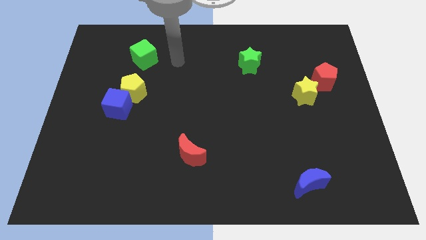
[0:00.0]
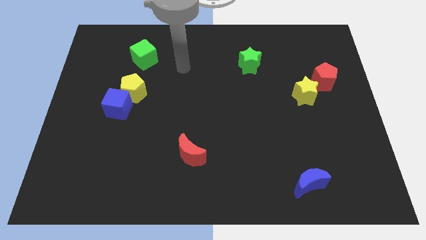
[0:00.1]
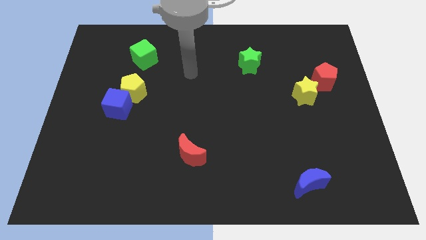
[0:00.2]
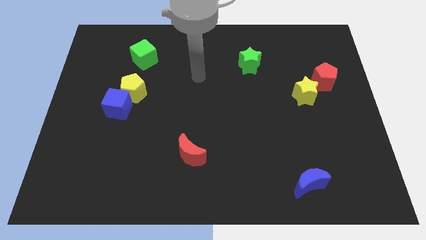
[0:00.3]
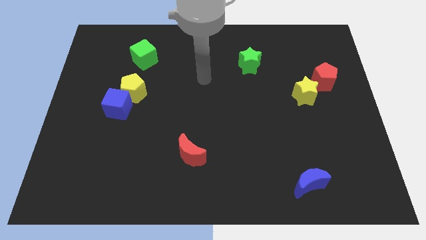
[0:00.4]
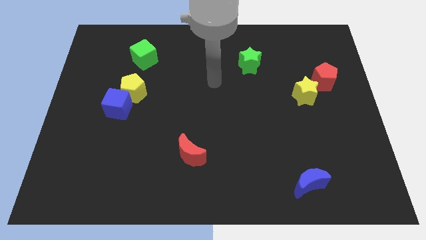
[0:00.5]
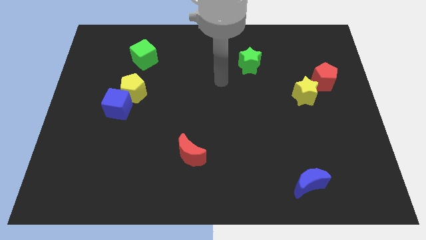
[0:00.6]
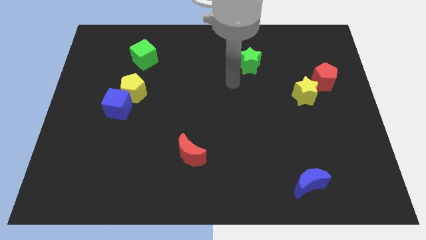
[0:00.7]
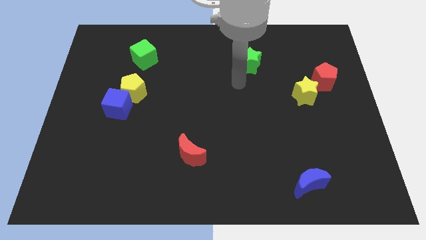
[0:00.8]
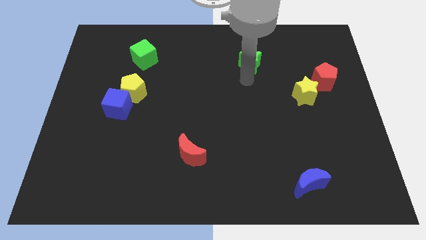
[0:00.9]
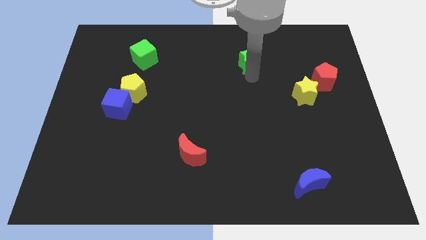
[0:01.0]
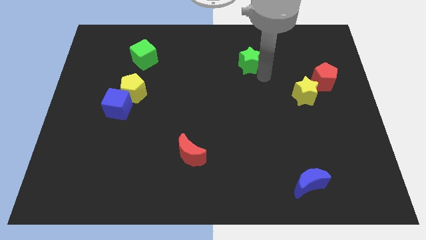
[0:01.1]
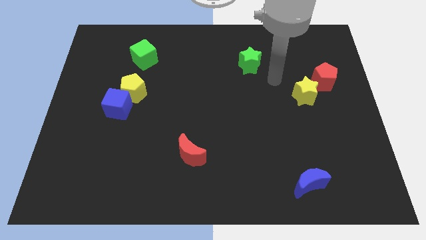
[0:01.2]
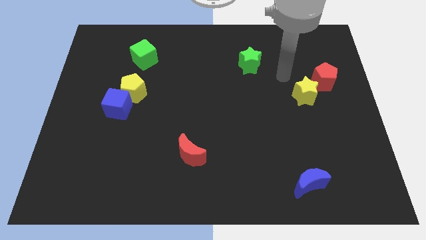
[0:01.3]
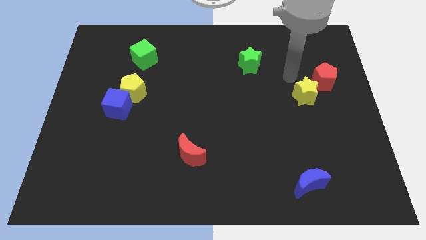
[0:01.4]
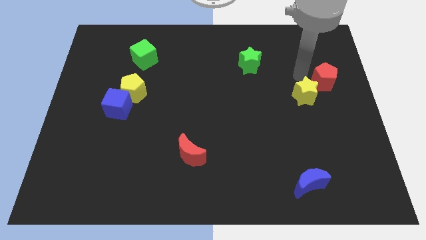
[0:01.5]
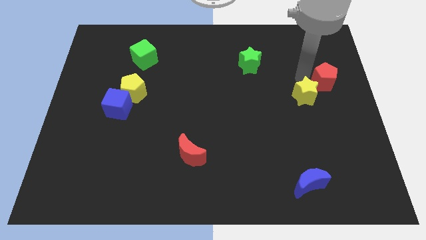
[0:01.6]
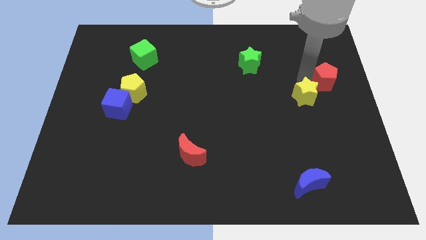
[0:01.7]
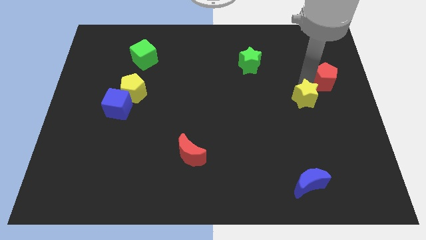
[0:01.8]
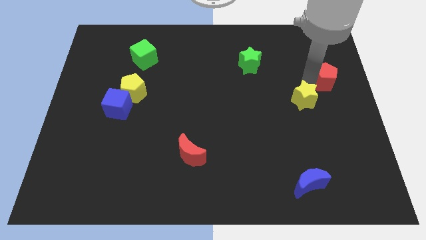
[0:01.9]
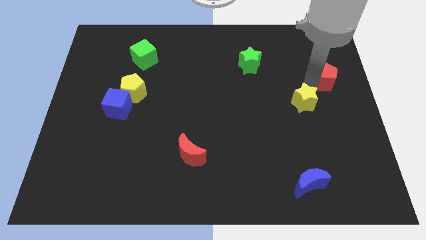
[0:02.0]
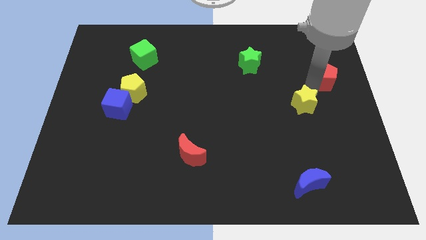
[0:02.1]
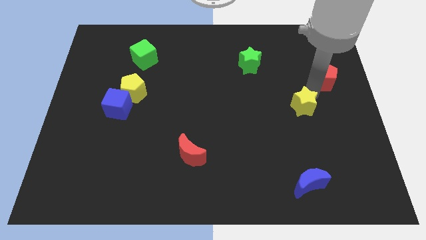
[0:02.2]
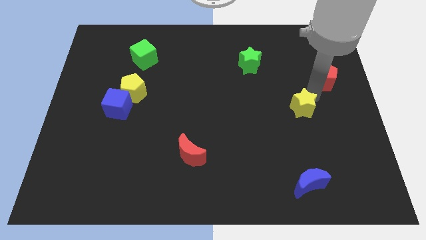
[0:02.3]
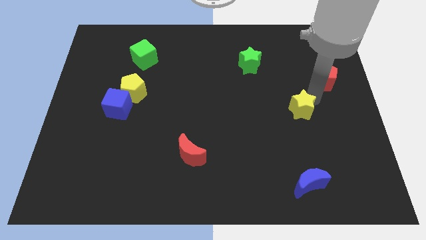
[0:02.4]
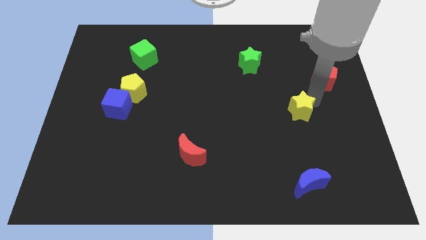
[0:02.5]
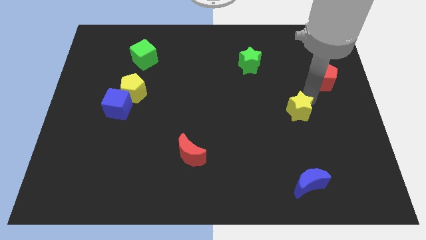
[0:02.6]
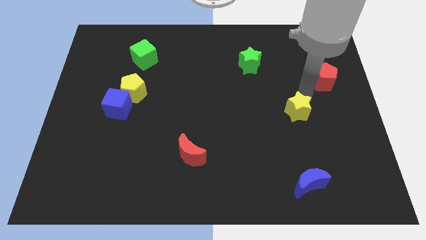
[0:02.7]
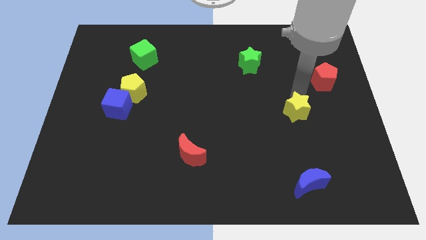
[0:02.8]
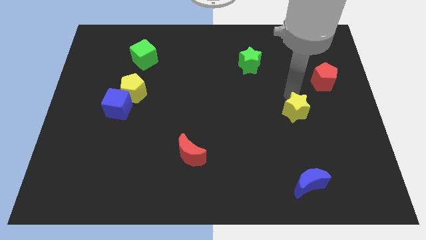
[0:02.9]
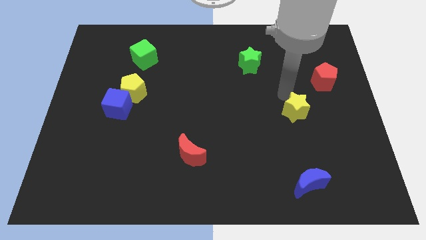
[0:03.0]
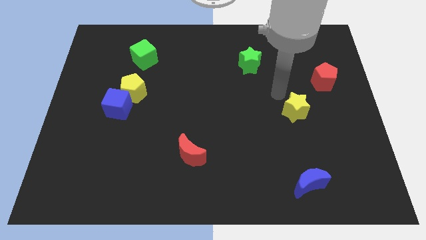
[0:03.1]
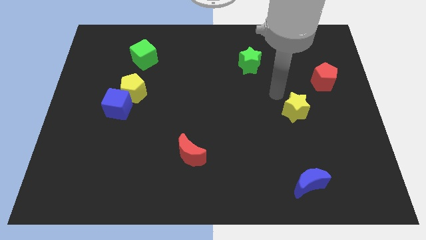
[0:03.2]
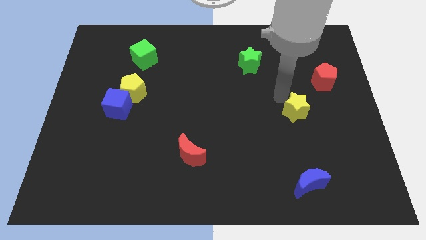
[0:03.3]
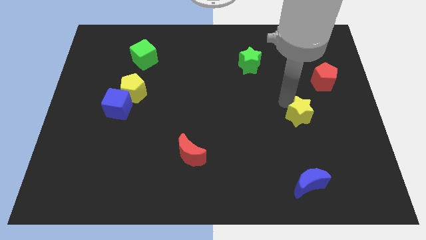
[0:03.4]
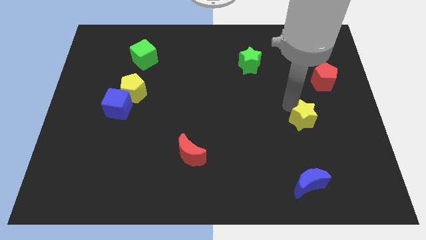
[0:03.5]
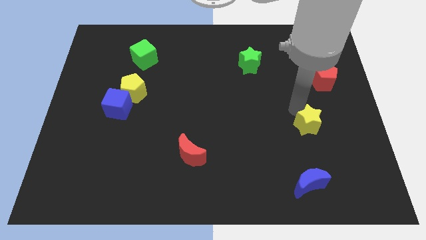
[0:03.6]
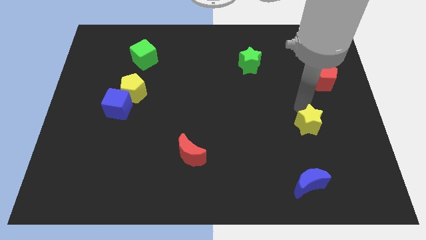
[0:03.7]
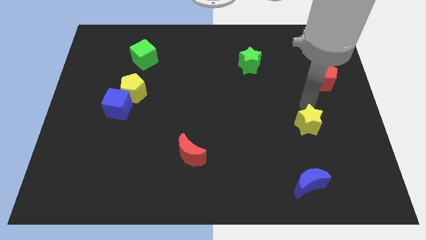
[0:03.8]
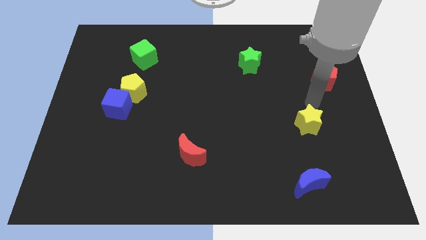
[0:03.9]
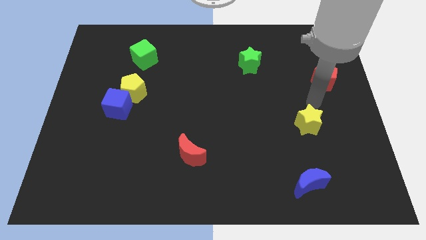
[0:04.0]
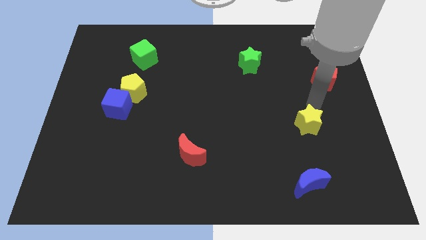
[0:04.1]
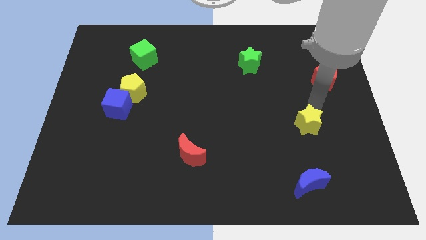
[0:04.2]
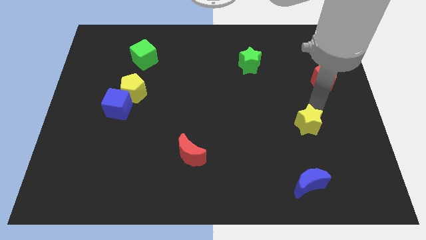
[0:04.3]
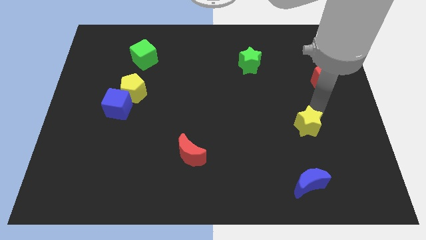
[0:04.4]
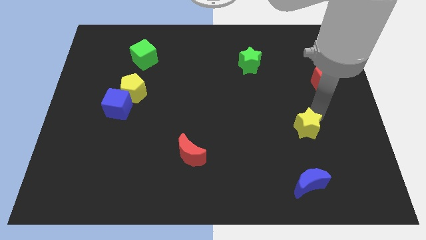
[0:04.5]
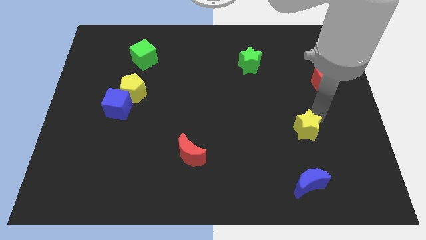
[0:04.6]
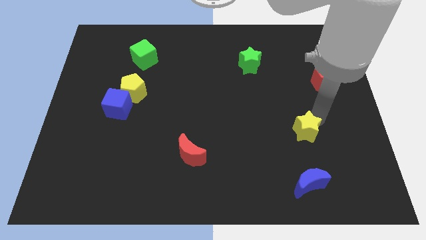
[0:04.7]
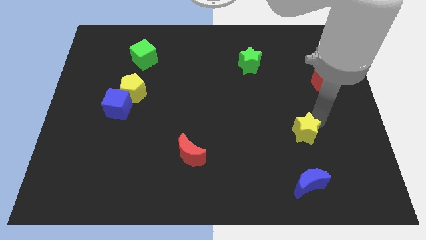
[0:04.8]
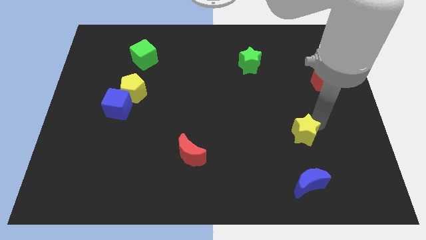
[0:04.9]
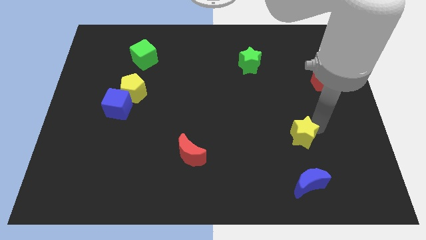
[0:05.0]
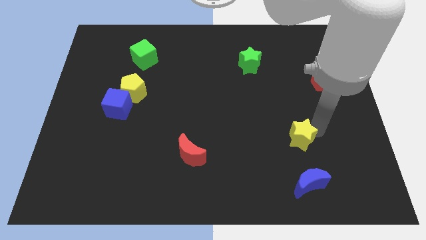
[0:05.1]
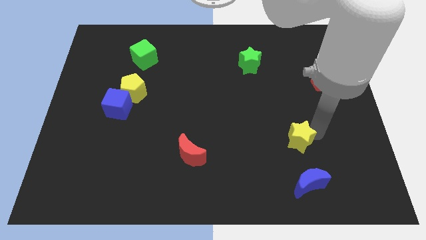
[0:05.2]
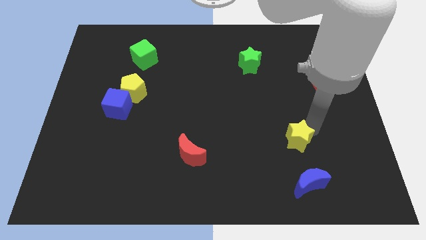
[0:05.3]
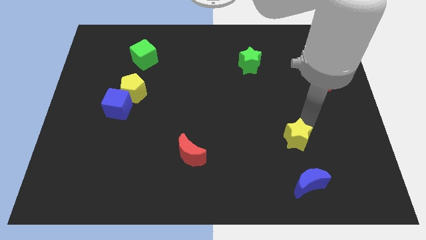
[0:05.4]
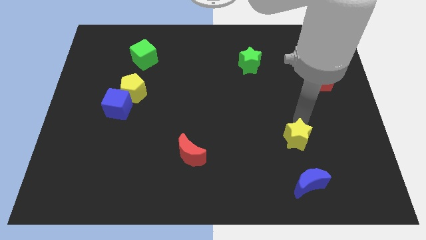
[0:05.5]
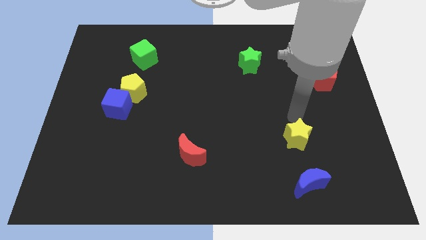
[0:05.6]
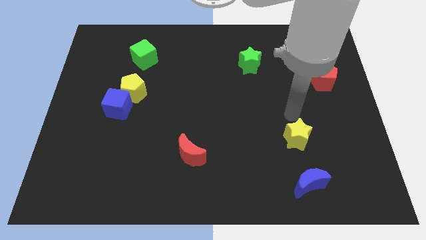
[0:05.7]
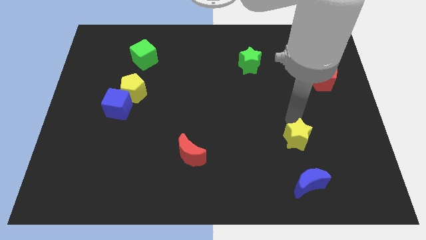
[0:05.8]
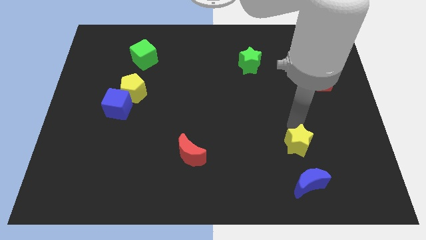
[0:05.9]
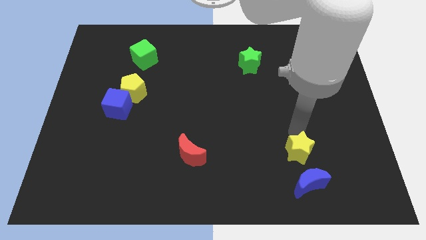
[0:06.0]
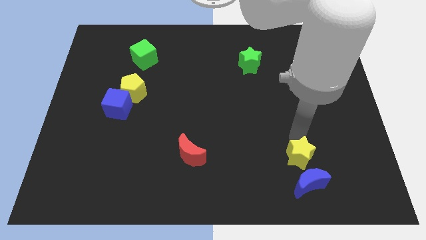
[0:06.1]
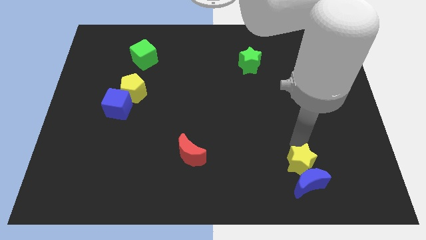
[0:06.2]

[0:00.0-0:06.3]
move the yellow star to the blue moon
